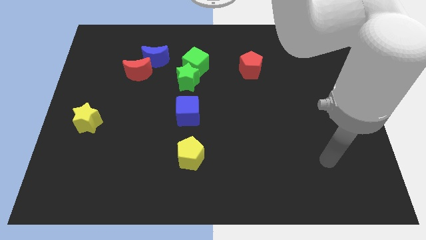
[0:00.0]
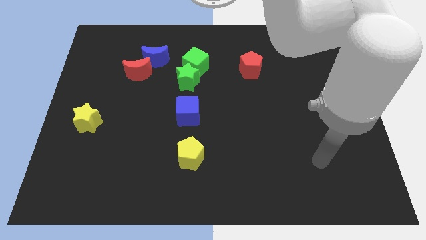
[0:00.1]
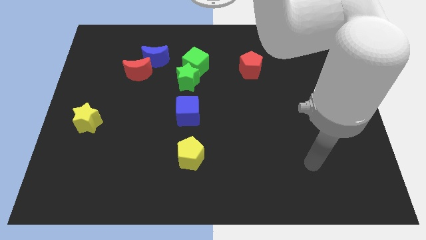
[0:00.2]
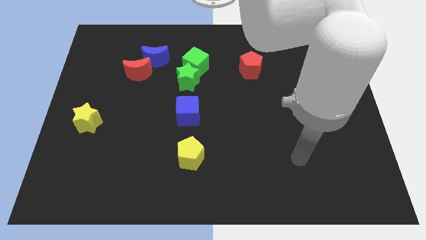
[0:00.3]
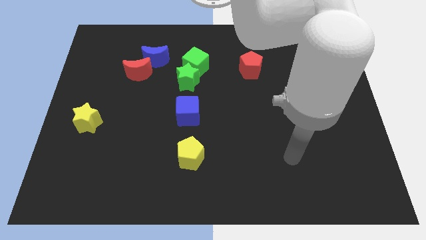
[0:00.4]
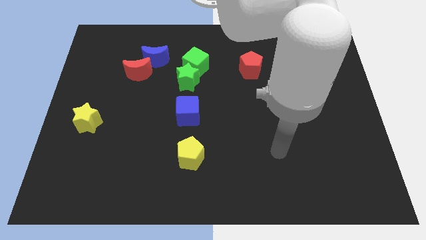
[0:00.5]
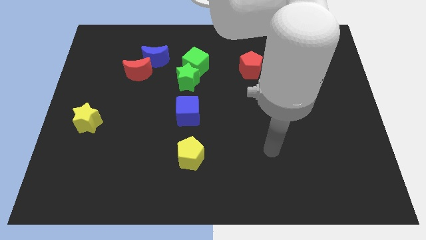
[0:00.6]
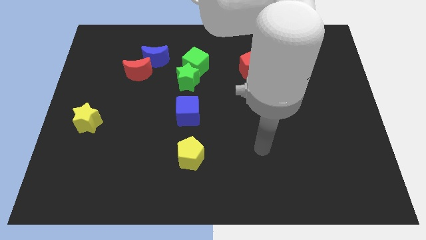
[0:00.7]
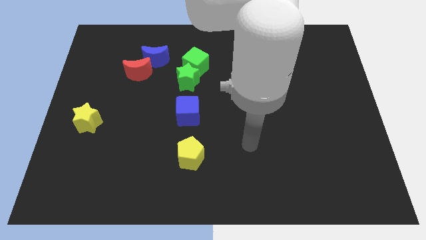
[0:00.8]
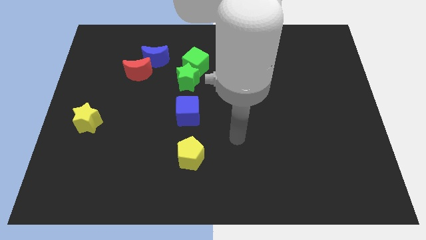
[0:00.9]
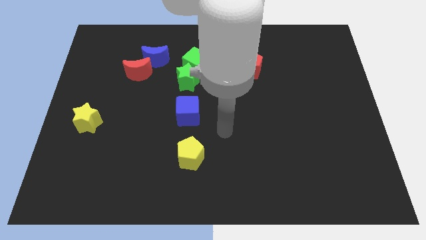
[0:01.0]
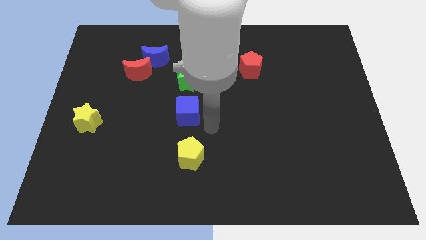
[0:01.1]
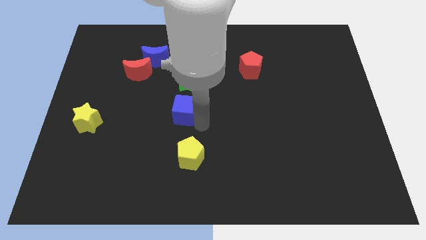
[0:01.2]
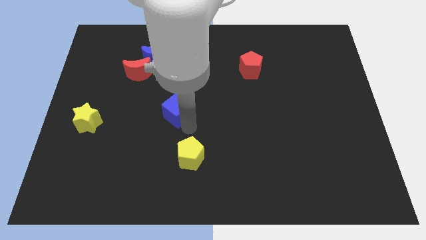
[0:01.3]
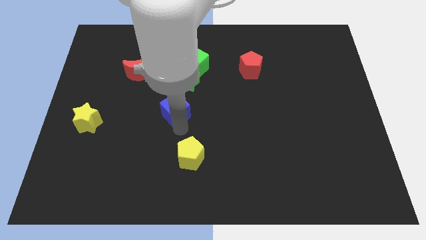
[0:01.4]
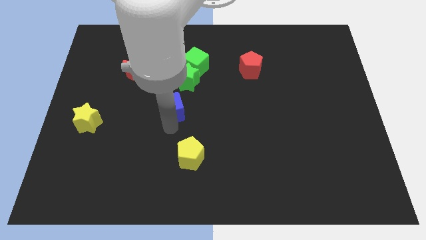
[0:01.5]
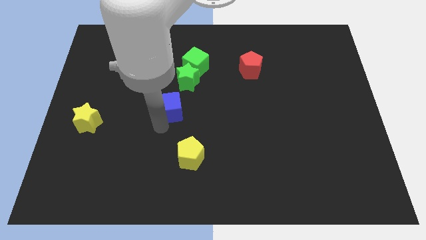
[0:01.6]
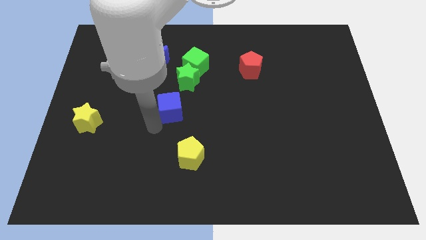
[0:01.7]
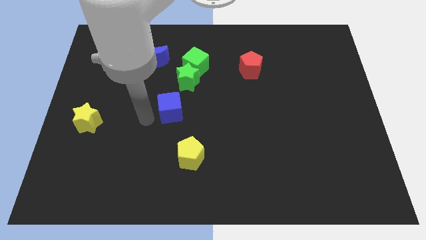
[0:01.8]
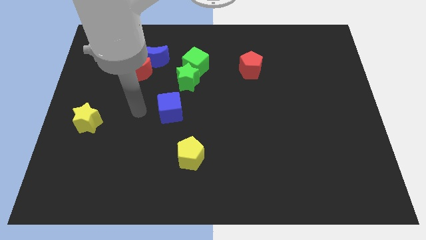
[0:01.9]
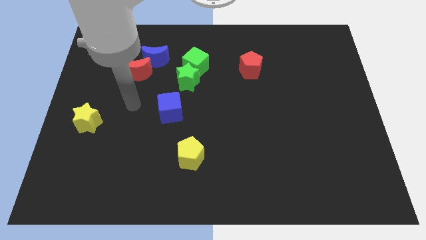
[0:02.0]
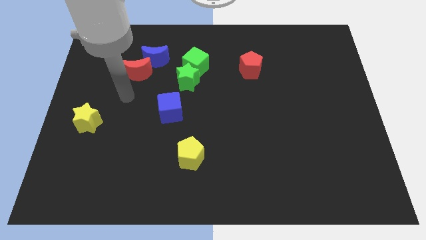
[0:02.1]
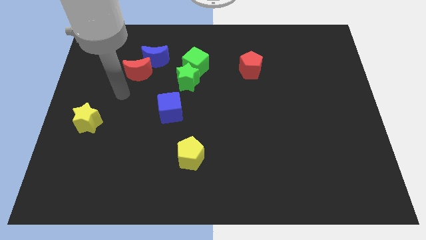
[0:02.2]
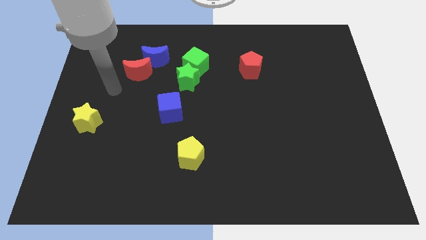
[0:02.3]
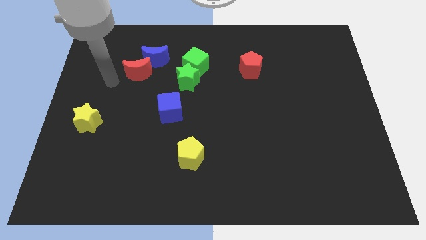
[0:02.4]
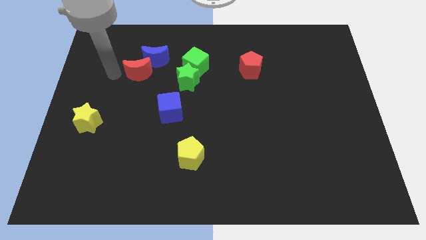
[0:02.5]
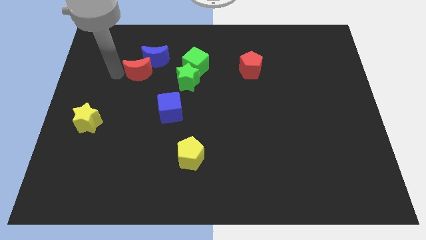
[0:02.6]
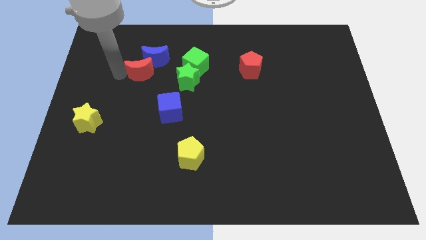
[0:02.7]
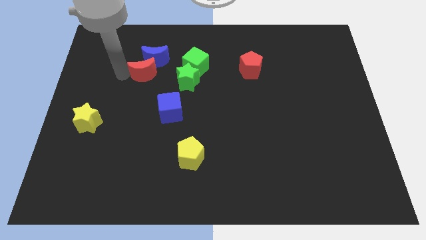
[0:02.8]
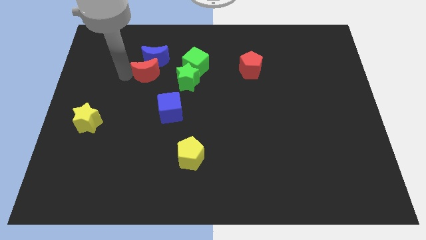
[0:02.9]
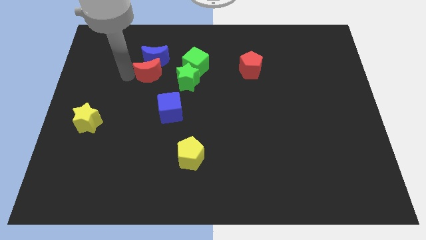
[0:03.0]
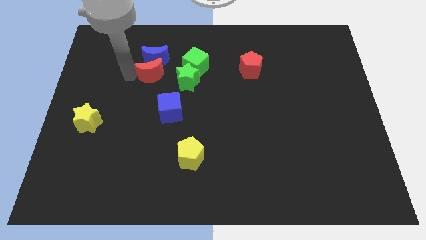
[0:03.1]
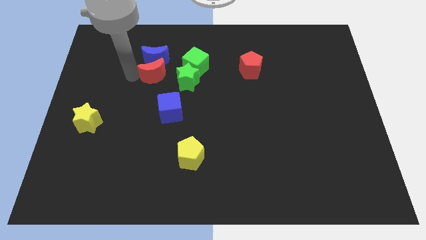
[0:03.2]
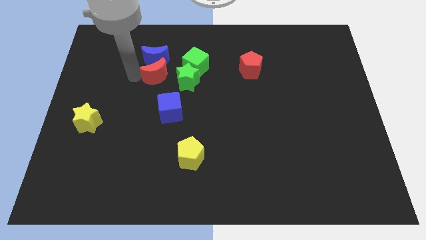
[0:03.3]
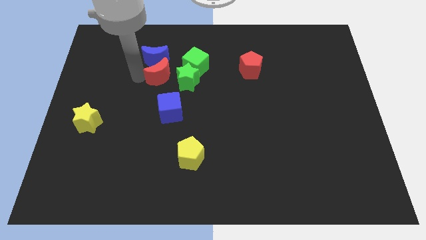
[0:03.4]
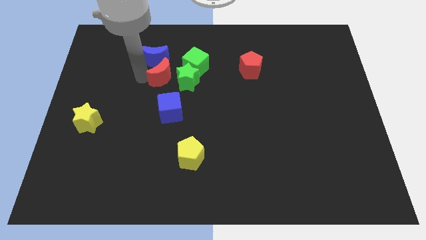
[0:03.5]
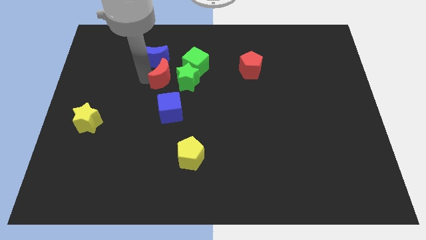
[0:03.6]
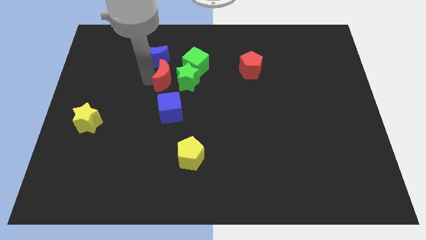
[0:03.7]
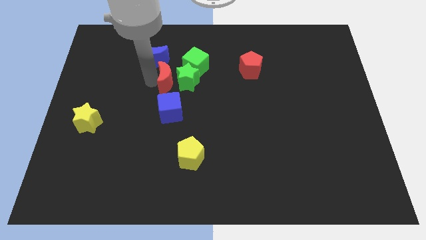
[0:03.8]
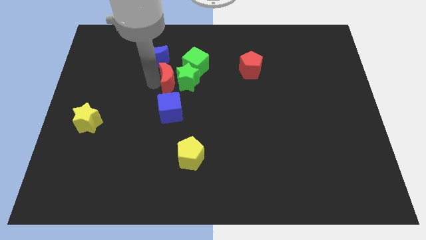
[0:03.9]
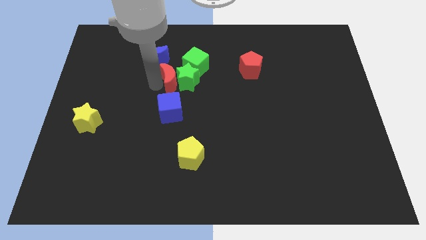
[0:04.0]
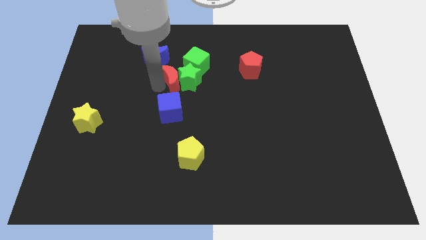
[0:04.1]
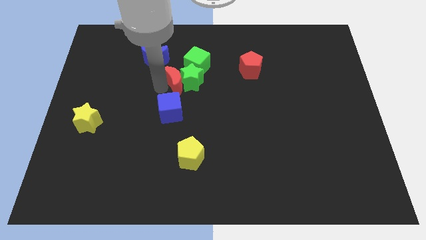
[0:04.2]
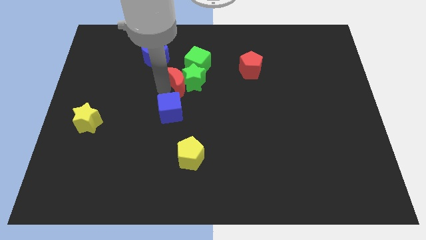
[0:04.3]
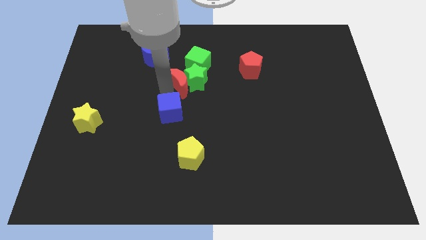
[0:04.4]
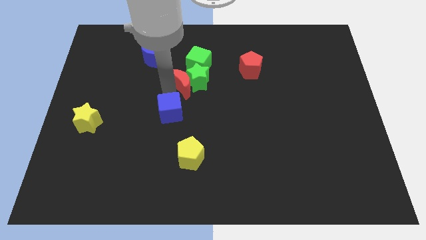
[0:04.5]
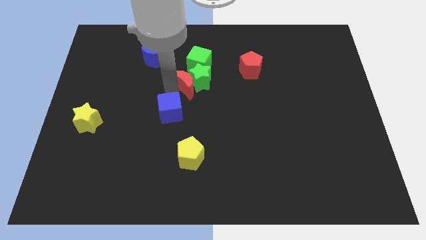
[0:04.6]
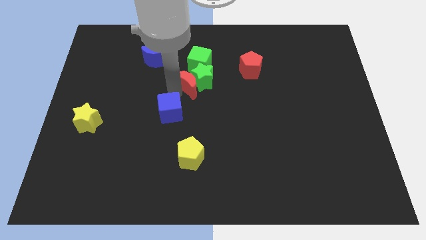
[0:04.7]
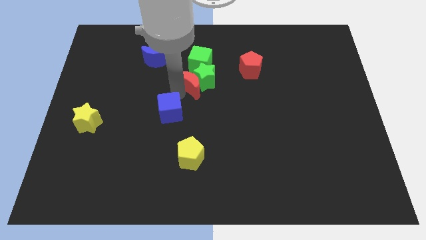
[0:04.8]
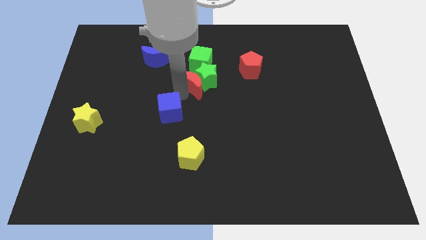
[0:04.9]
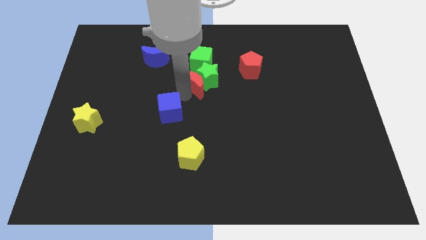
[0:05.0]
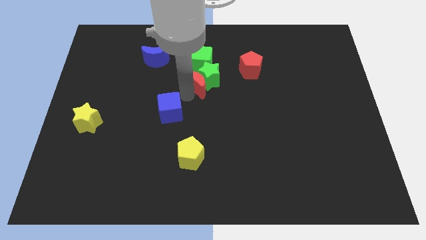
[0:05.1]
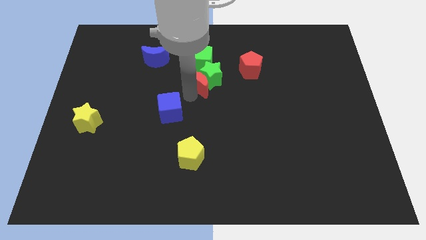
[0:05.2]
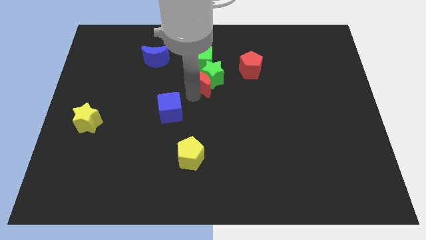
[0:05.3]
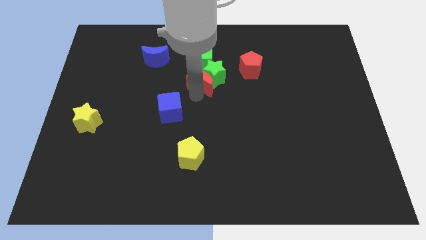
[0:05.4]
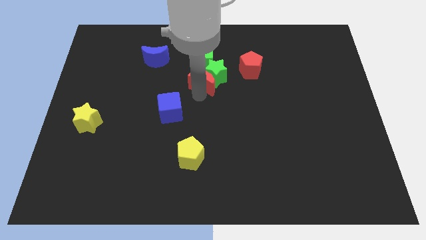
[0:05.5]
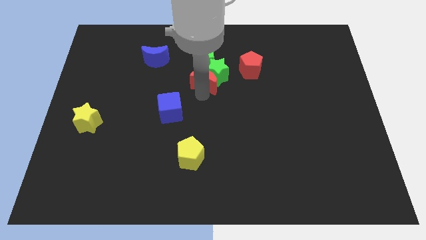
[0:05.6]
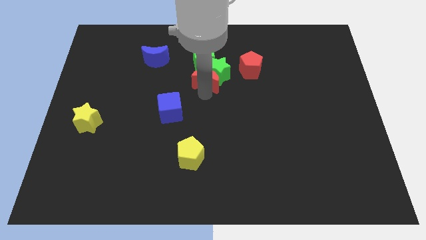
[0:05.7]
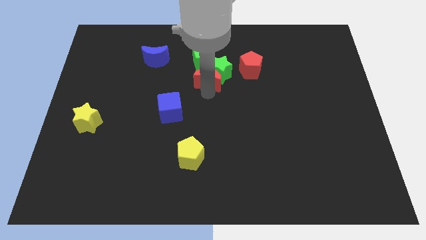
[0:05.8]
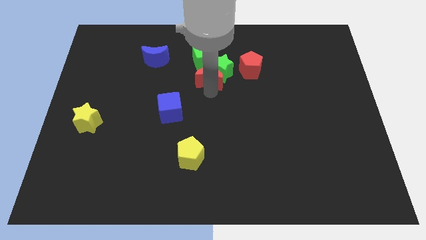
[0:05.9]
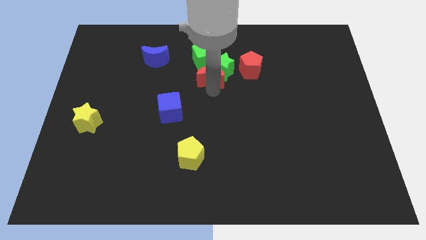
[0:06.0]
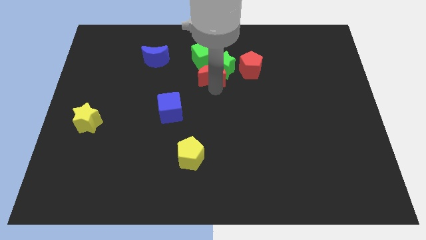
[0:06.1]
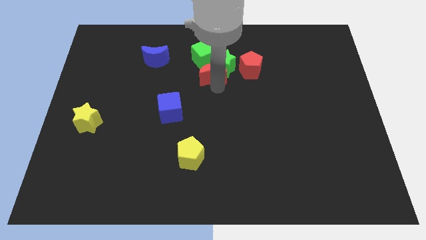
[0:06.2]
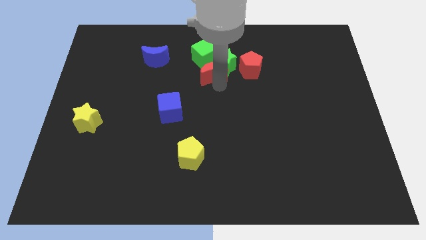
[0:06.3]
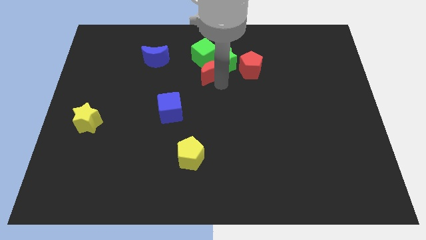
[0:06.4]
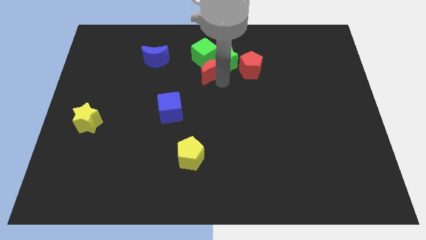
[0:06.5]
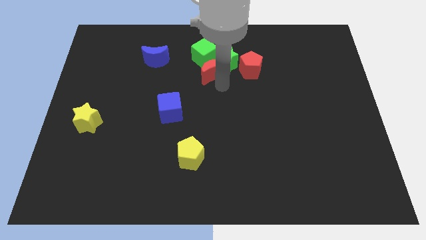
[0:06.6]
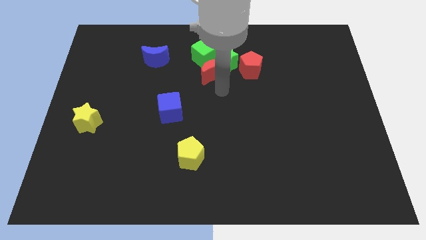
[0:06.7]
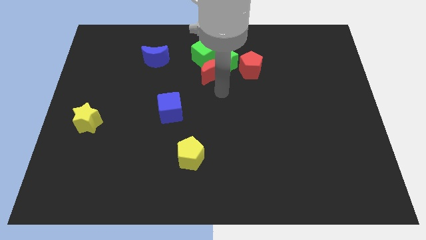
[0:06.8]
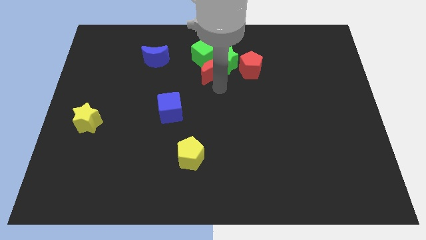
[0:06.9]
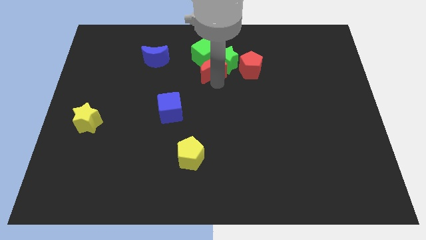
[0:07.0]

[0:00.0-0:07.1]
put the red moon close to the green cube
